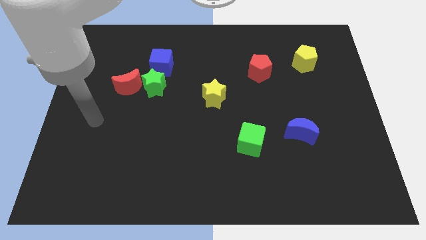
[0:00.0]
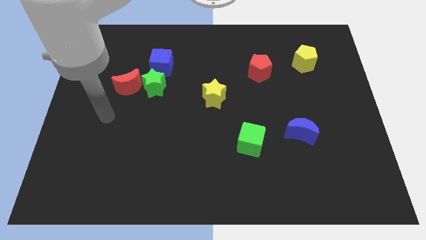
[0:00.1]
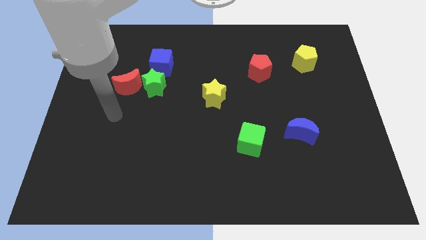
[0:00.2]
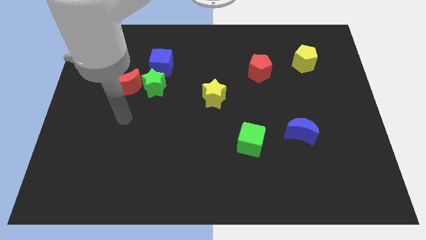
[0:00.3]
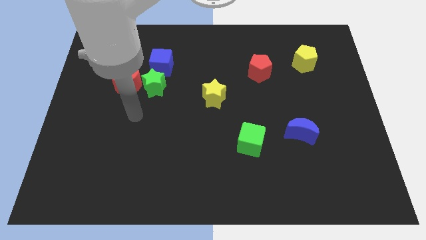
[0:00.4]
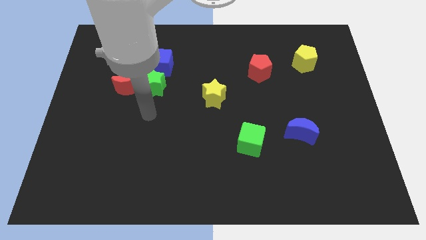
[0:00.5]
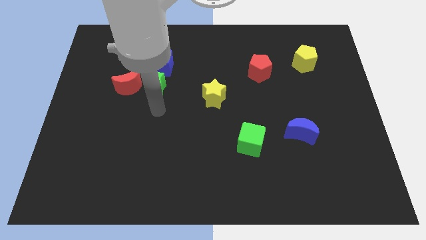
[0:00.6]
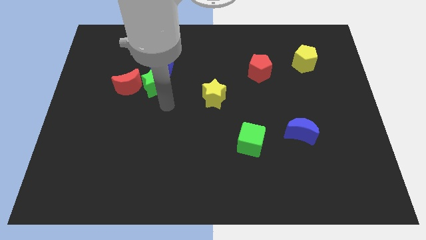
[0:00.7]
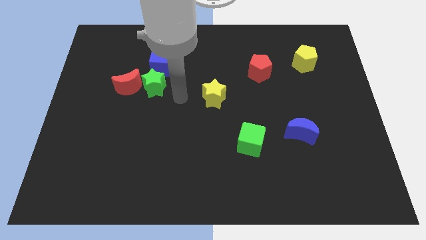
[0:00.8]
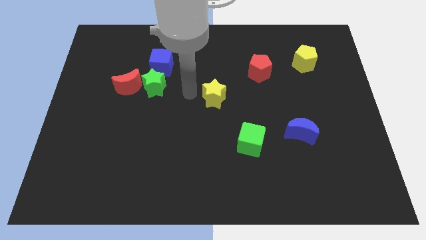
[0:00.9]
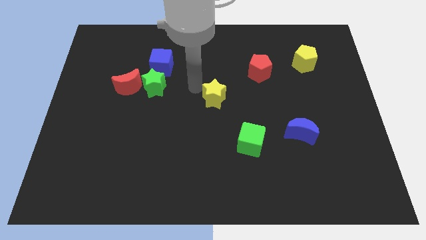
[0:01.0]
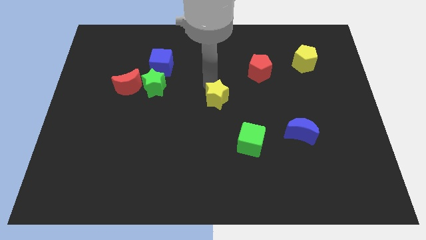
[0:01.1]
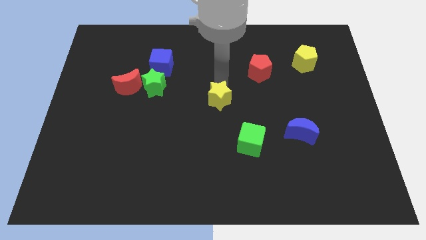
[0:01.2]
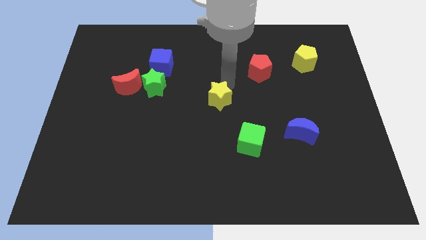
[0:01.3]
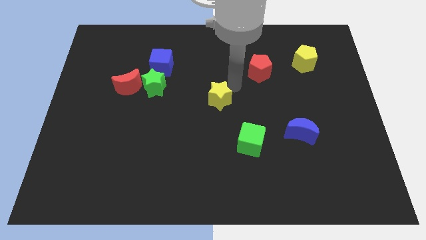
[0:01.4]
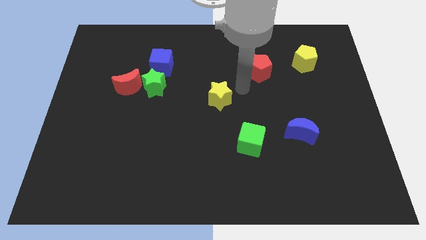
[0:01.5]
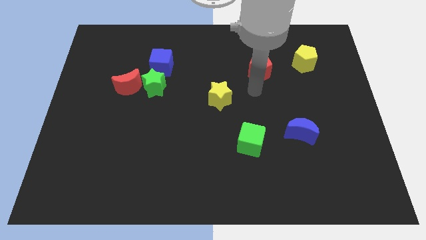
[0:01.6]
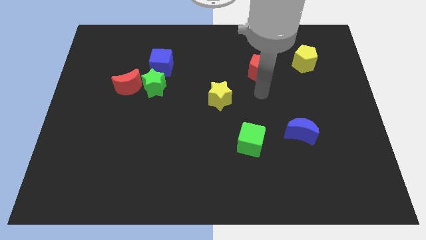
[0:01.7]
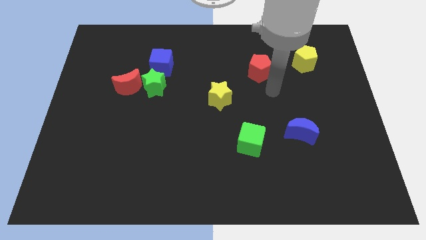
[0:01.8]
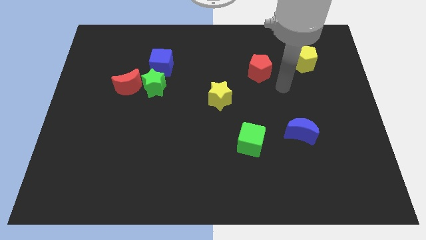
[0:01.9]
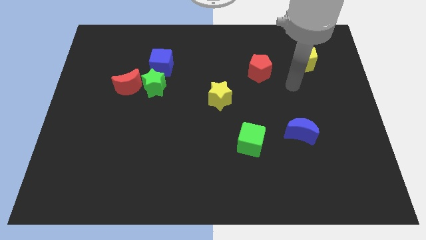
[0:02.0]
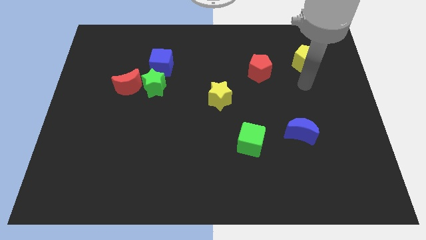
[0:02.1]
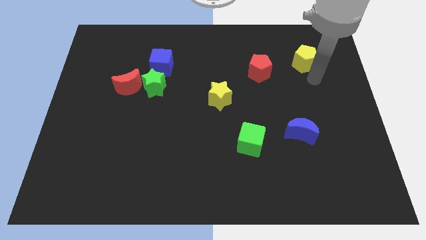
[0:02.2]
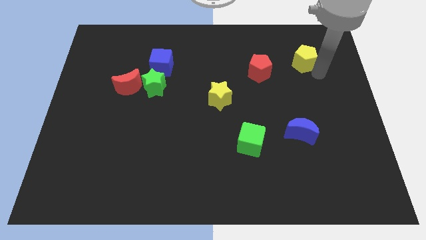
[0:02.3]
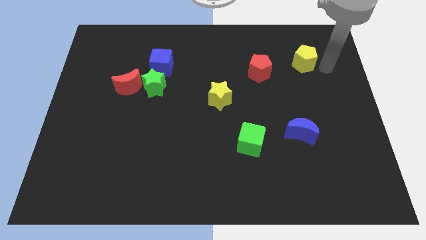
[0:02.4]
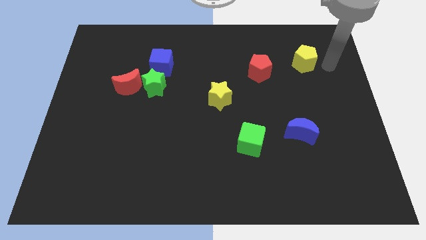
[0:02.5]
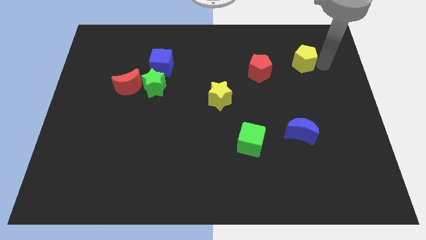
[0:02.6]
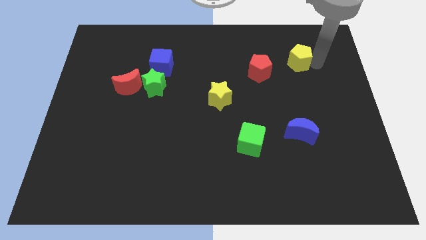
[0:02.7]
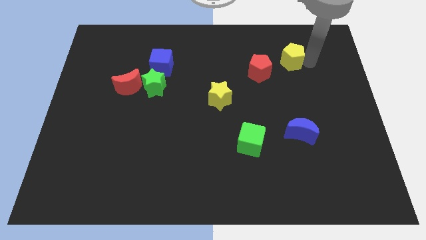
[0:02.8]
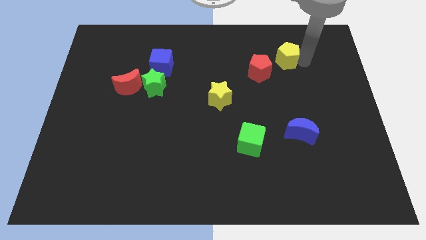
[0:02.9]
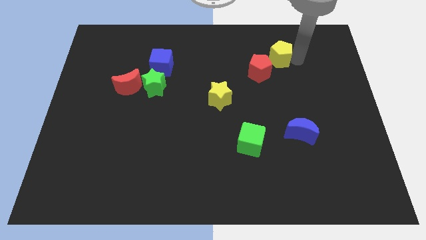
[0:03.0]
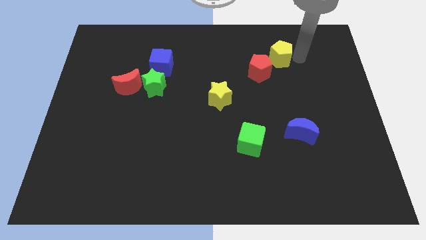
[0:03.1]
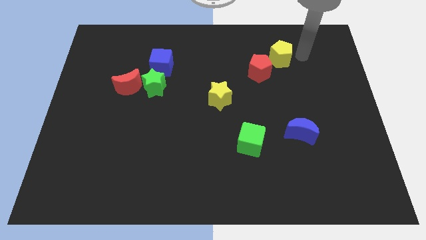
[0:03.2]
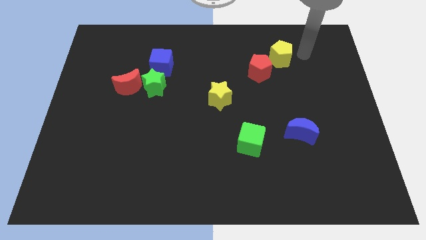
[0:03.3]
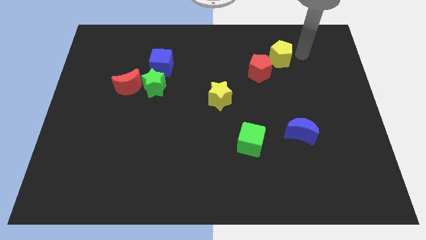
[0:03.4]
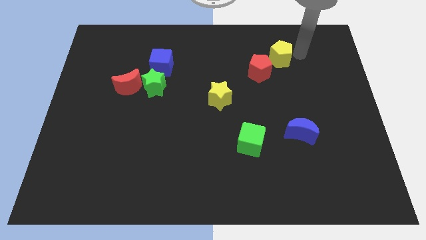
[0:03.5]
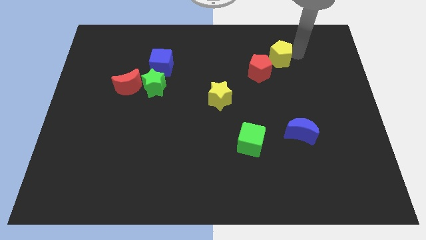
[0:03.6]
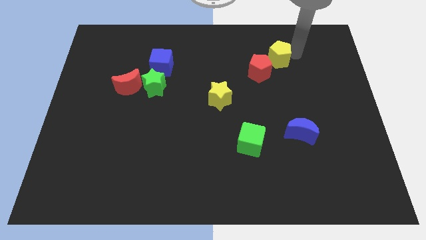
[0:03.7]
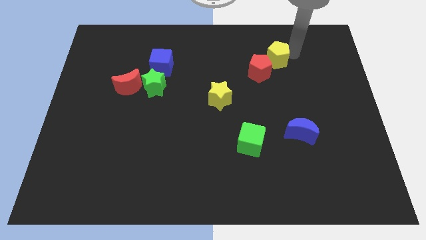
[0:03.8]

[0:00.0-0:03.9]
move the yellow pentagon a bit left

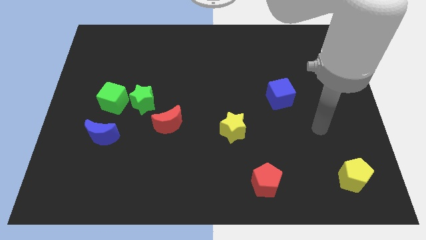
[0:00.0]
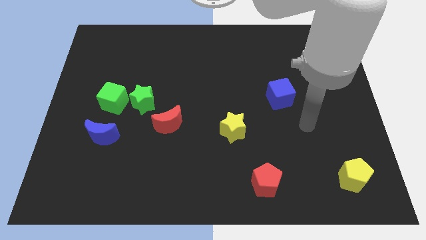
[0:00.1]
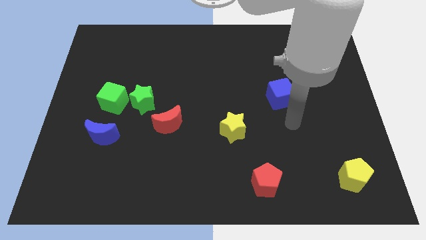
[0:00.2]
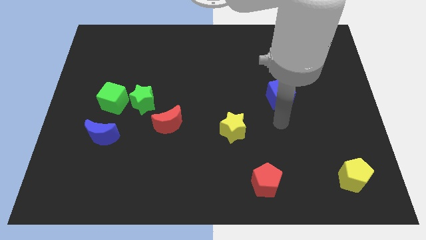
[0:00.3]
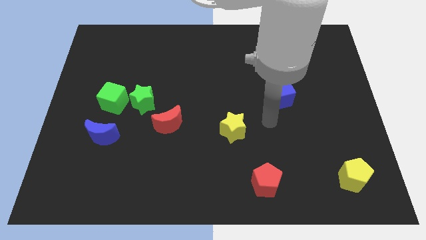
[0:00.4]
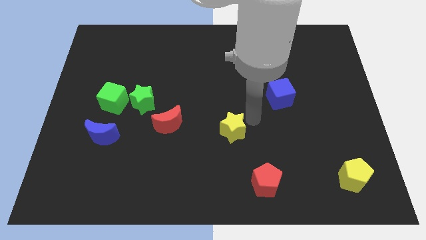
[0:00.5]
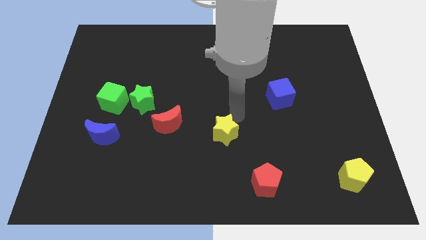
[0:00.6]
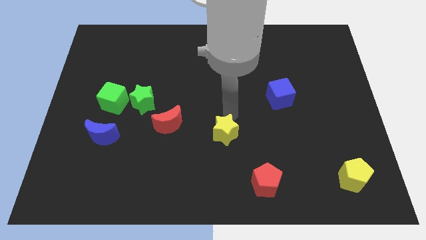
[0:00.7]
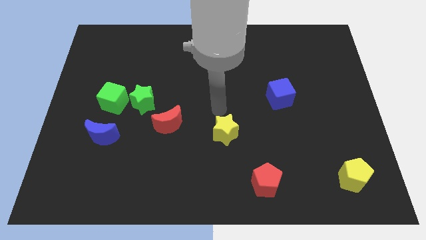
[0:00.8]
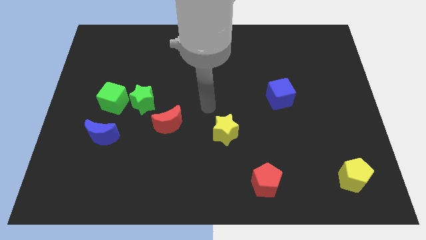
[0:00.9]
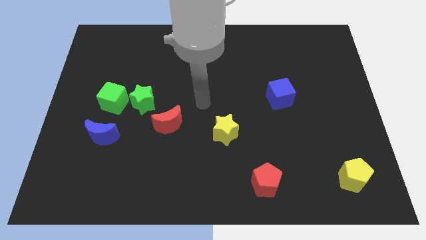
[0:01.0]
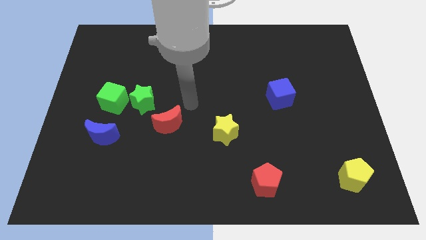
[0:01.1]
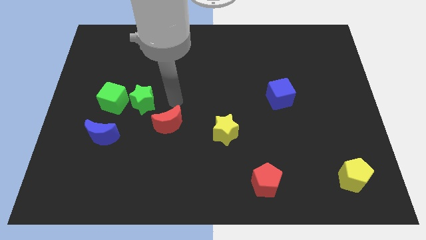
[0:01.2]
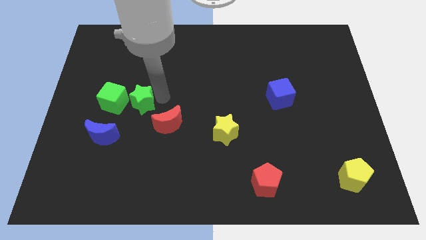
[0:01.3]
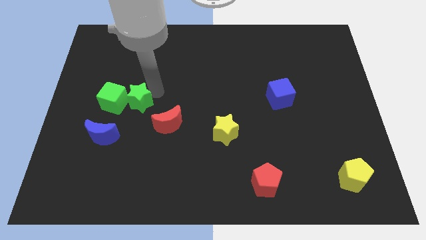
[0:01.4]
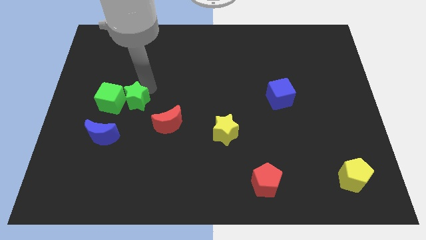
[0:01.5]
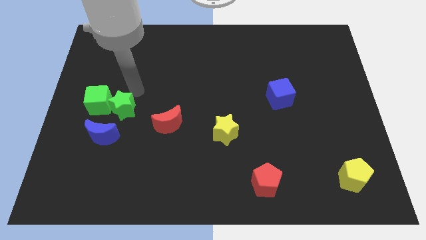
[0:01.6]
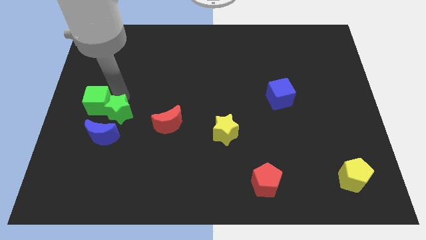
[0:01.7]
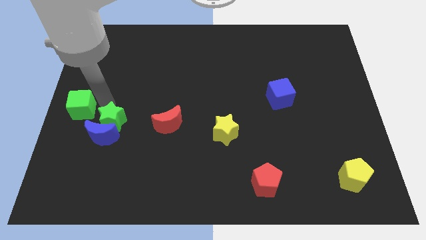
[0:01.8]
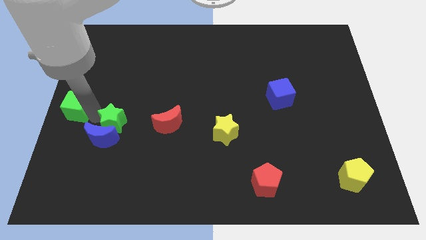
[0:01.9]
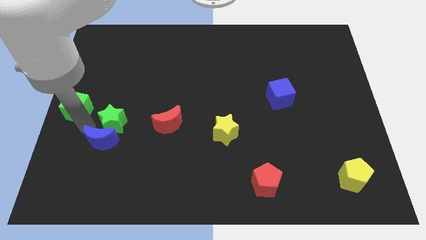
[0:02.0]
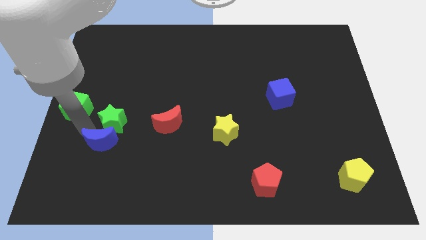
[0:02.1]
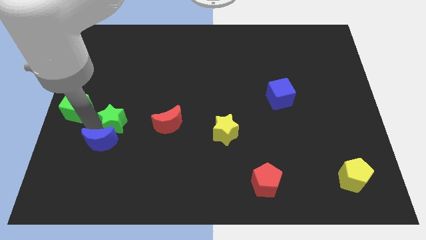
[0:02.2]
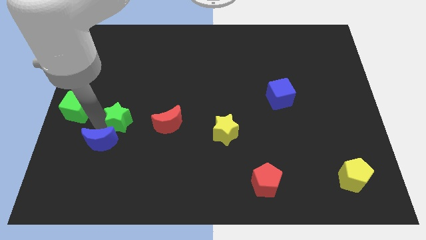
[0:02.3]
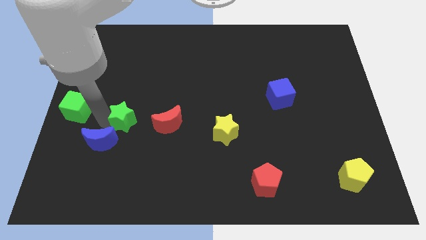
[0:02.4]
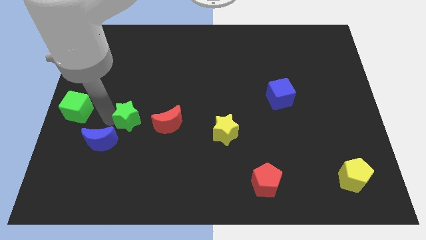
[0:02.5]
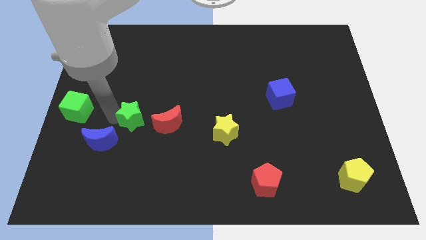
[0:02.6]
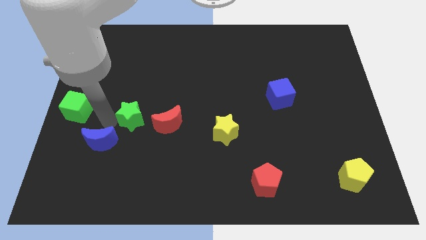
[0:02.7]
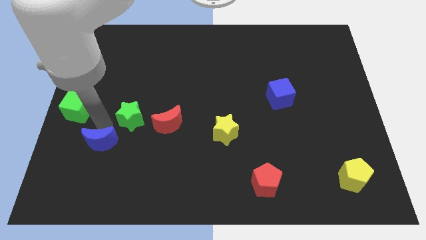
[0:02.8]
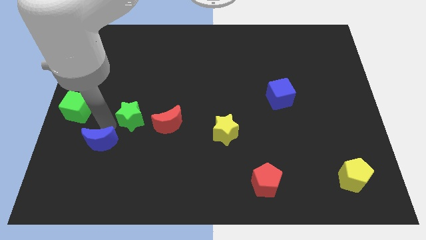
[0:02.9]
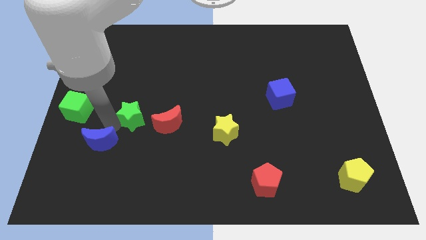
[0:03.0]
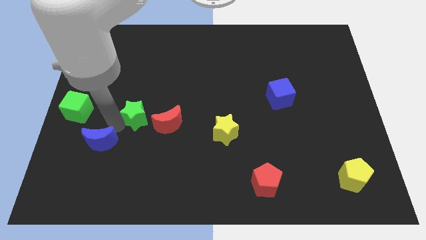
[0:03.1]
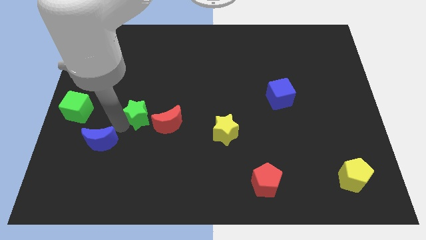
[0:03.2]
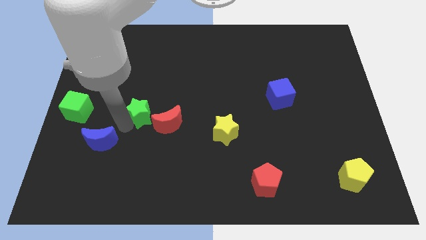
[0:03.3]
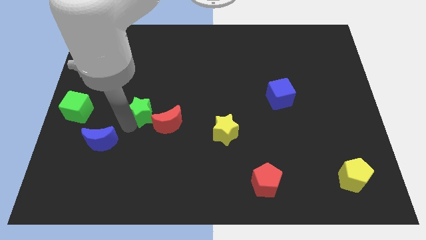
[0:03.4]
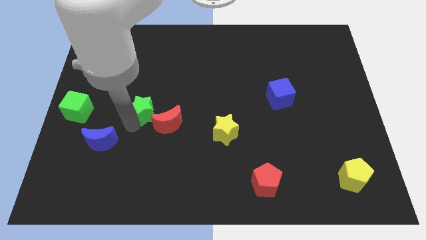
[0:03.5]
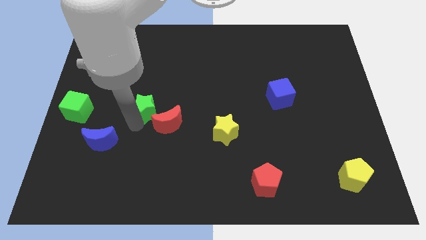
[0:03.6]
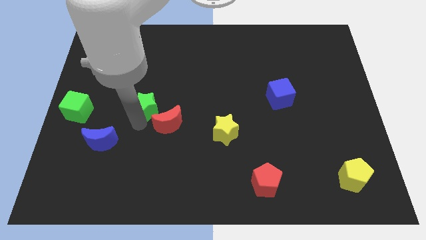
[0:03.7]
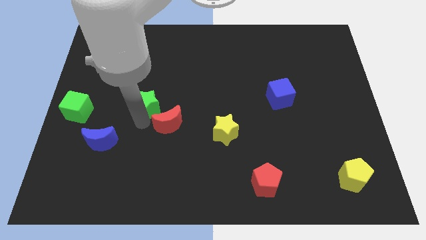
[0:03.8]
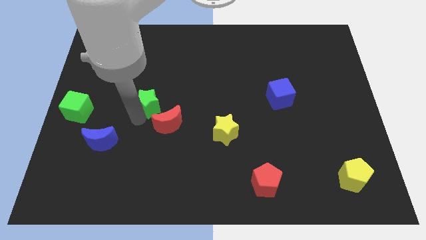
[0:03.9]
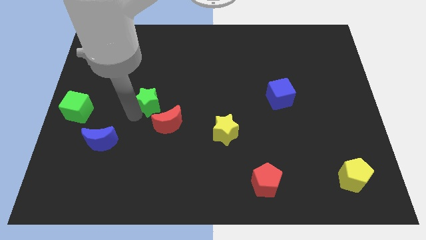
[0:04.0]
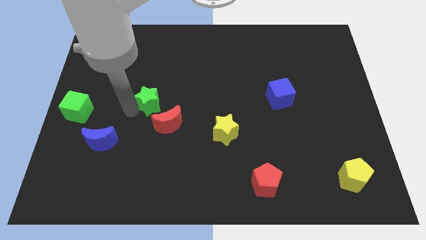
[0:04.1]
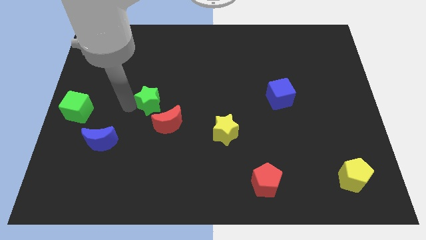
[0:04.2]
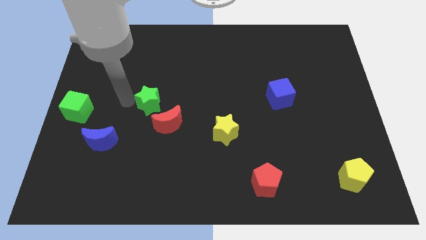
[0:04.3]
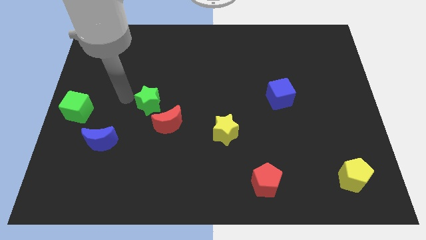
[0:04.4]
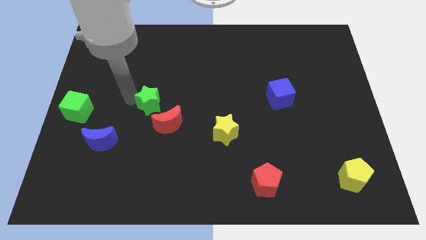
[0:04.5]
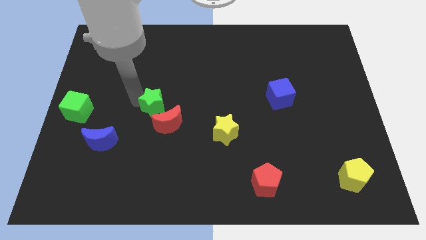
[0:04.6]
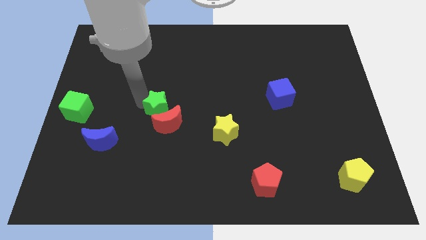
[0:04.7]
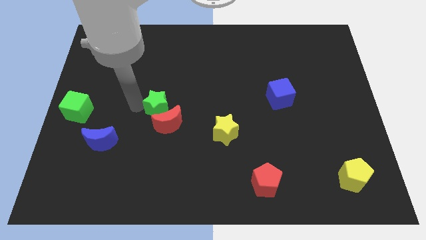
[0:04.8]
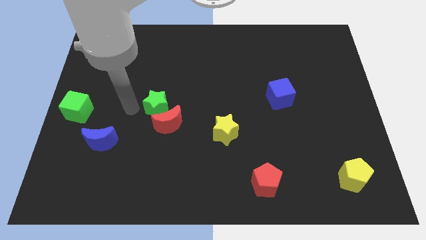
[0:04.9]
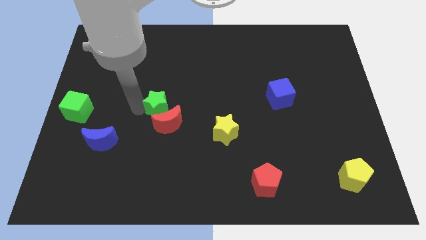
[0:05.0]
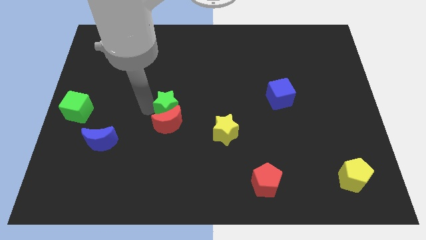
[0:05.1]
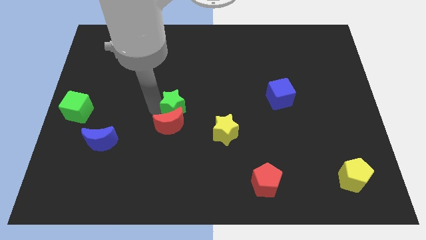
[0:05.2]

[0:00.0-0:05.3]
slightly slide the green star to the right
